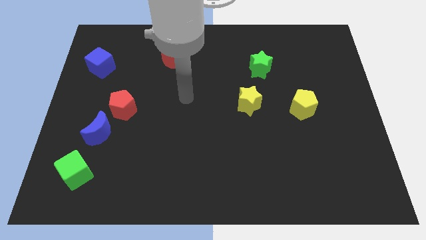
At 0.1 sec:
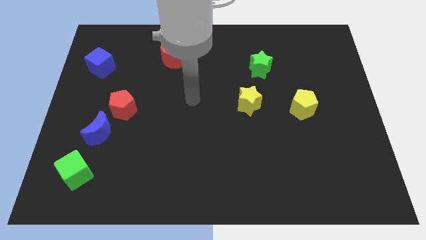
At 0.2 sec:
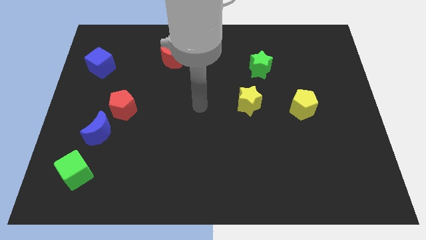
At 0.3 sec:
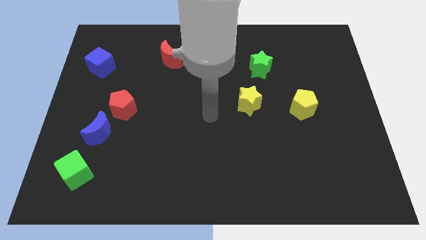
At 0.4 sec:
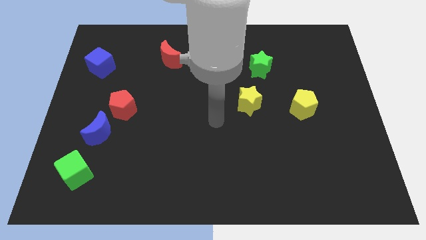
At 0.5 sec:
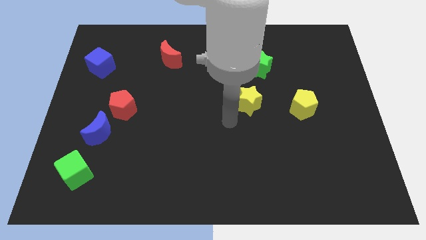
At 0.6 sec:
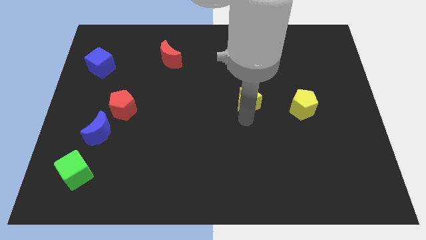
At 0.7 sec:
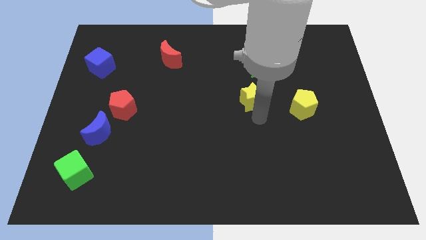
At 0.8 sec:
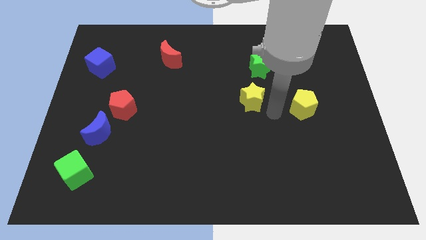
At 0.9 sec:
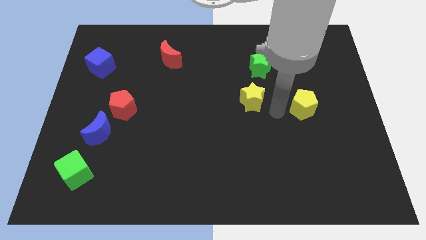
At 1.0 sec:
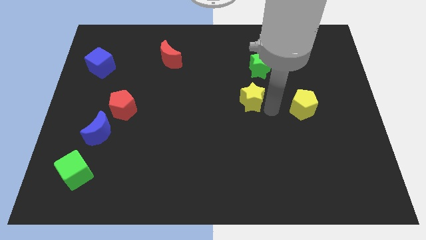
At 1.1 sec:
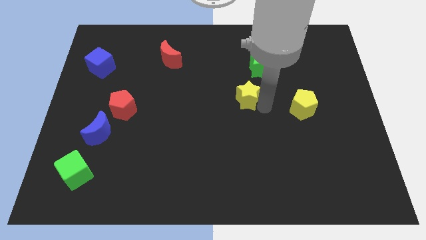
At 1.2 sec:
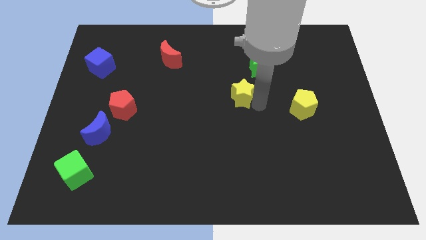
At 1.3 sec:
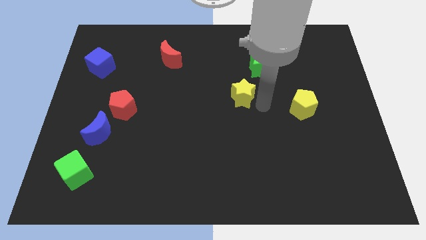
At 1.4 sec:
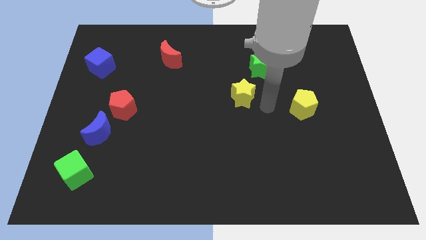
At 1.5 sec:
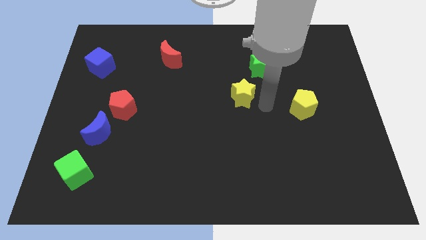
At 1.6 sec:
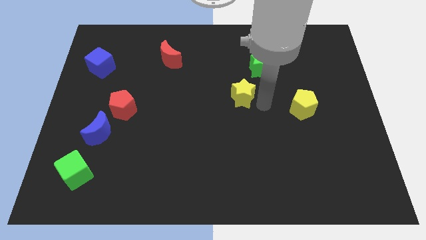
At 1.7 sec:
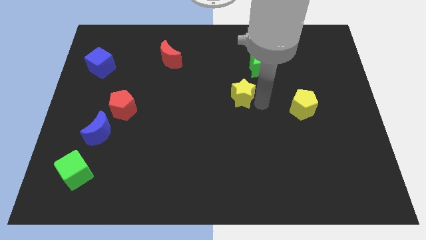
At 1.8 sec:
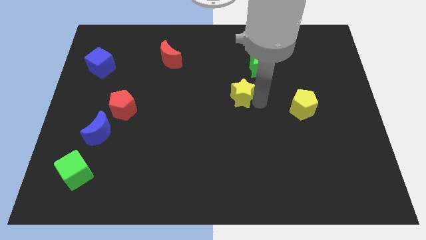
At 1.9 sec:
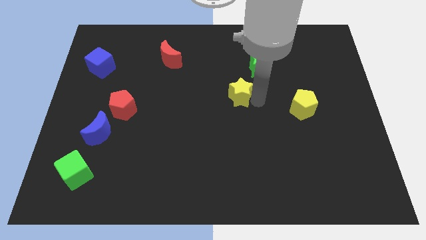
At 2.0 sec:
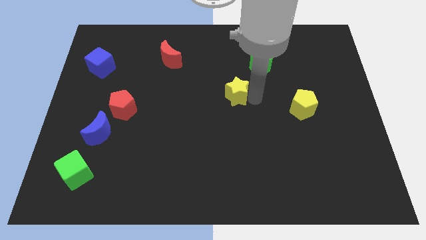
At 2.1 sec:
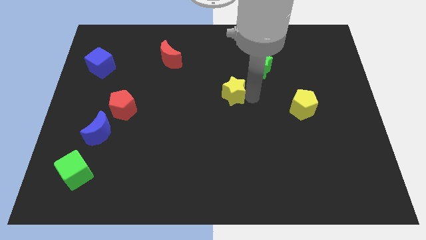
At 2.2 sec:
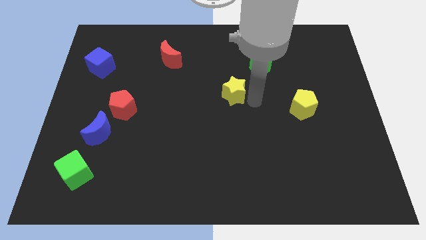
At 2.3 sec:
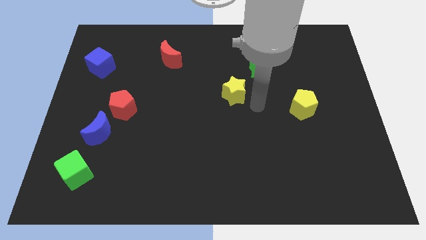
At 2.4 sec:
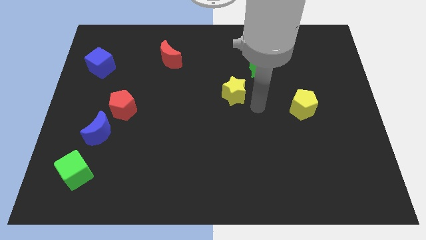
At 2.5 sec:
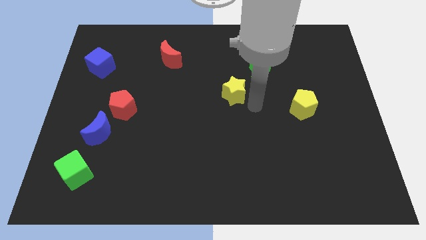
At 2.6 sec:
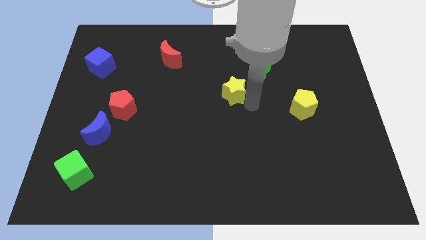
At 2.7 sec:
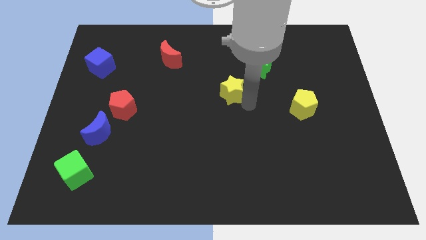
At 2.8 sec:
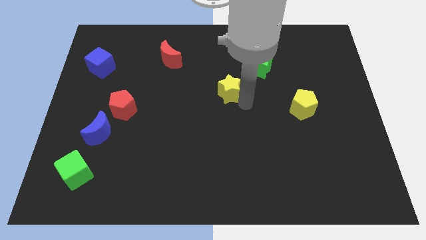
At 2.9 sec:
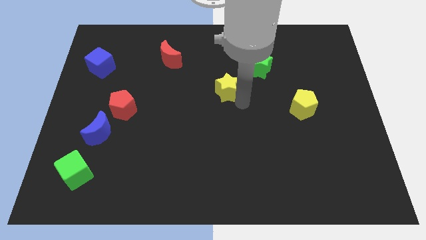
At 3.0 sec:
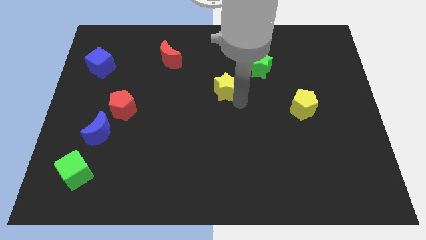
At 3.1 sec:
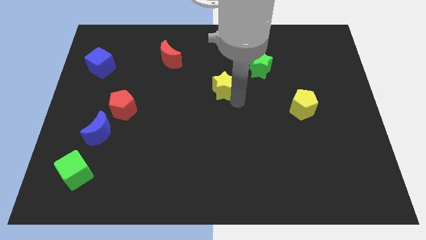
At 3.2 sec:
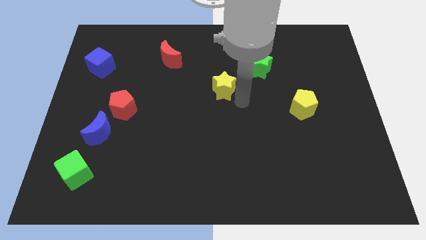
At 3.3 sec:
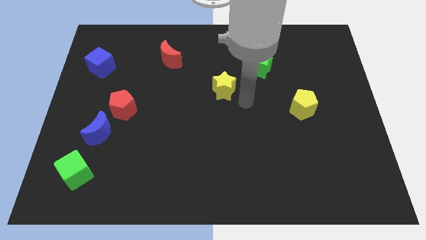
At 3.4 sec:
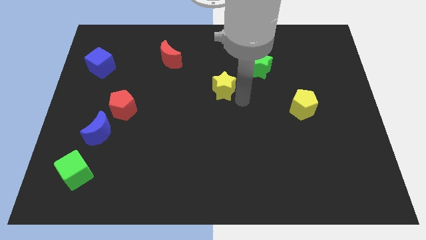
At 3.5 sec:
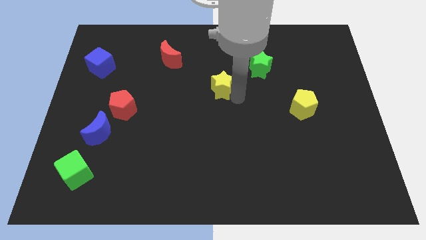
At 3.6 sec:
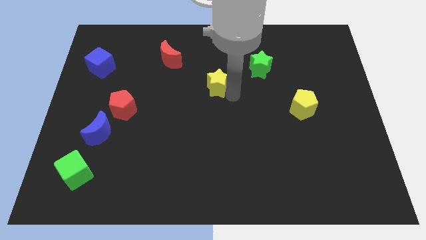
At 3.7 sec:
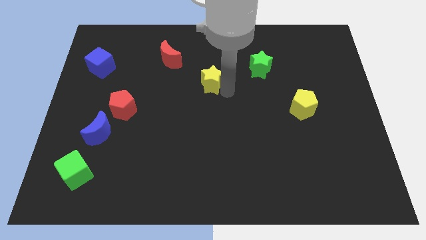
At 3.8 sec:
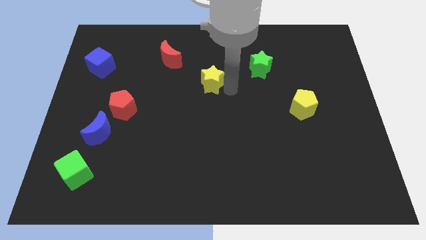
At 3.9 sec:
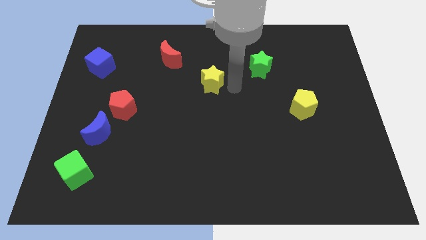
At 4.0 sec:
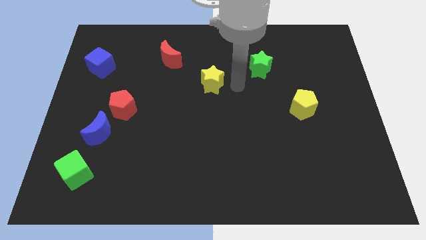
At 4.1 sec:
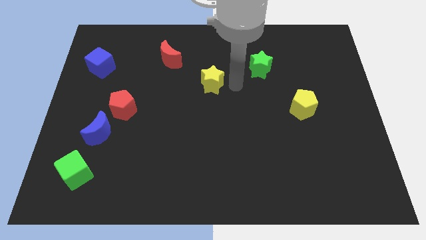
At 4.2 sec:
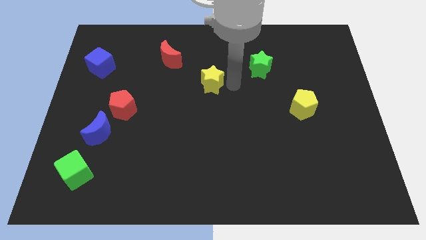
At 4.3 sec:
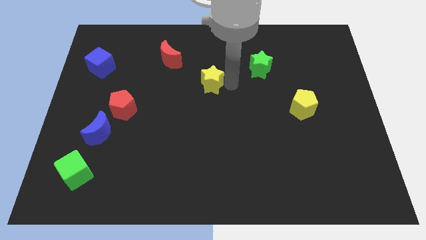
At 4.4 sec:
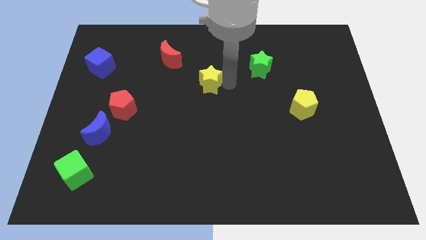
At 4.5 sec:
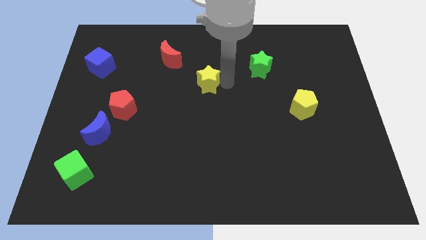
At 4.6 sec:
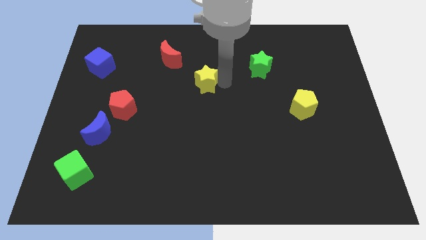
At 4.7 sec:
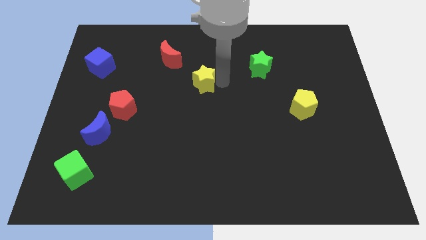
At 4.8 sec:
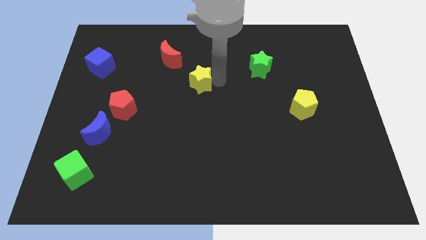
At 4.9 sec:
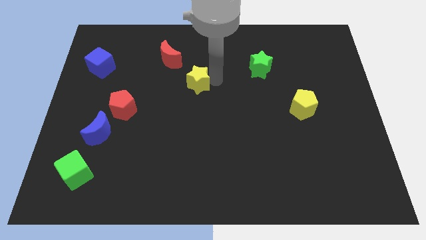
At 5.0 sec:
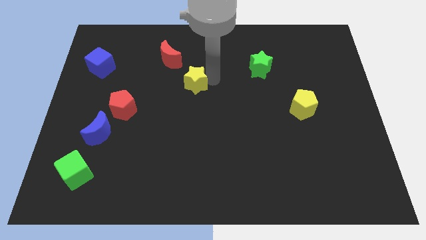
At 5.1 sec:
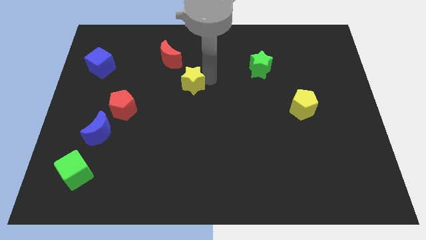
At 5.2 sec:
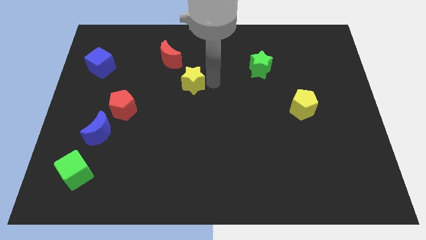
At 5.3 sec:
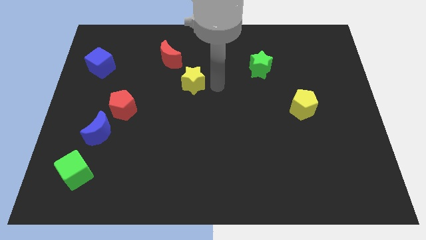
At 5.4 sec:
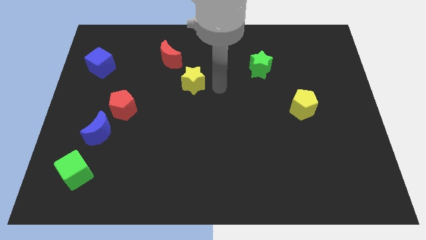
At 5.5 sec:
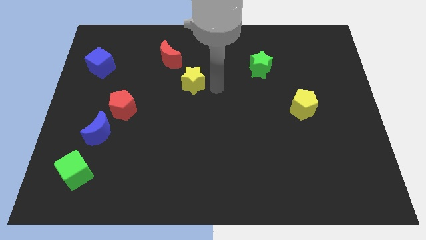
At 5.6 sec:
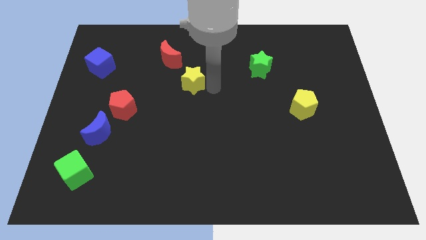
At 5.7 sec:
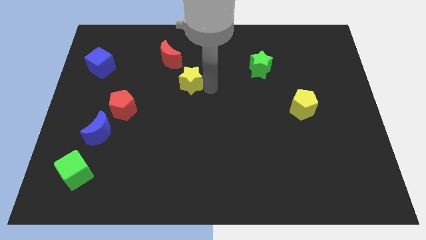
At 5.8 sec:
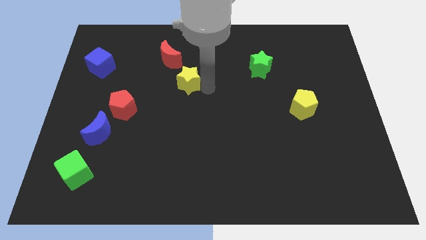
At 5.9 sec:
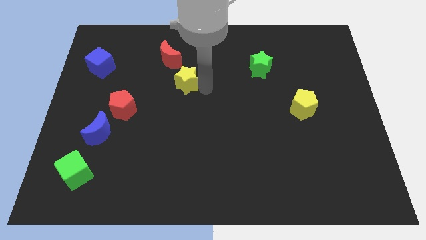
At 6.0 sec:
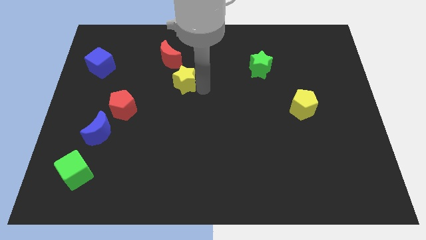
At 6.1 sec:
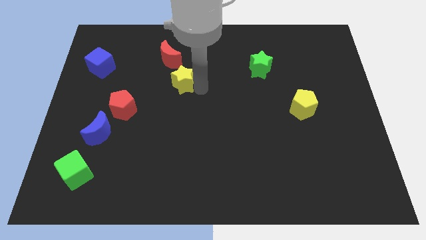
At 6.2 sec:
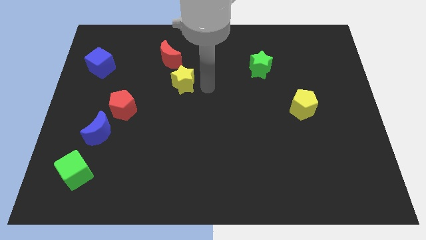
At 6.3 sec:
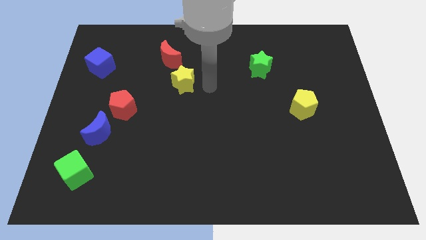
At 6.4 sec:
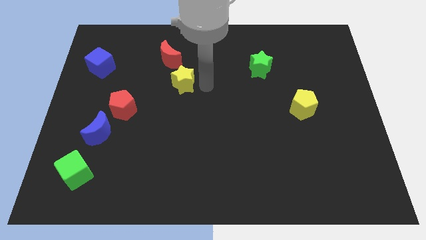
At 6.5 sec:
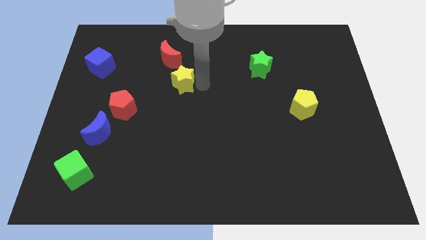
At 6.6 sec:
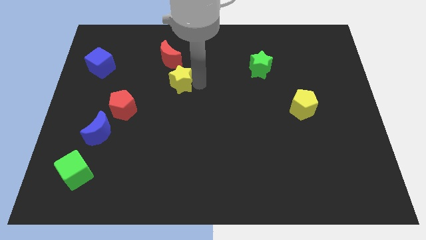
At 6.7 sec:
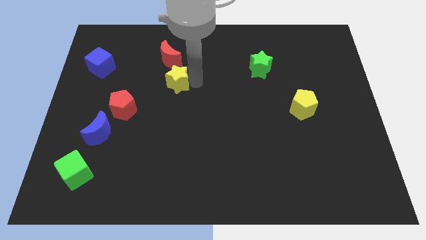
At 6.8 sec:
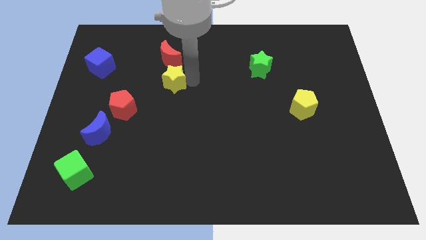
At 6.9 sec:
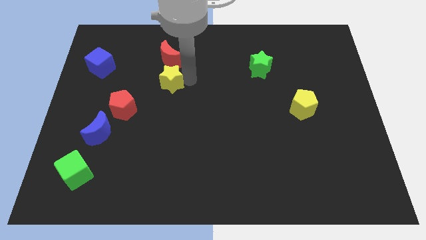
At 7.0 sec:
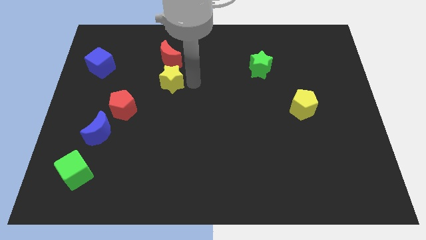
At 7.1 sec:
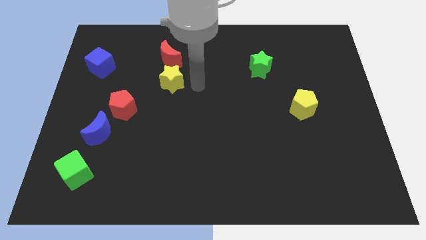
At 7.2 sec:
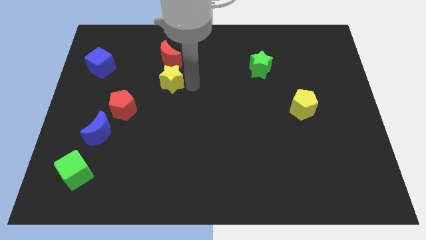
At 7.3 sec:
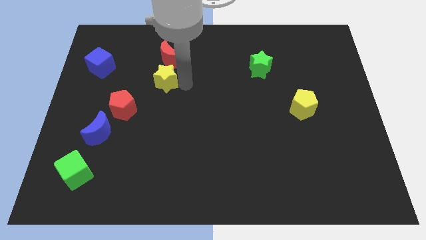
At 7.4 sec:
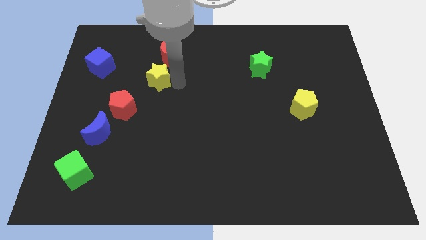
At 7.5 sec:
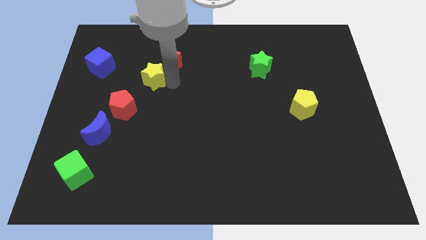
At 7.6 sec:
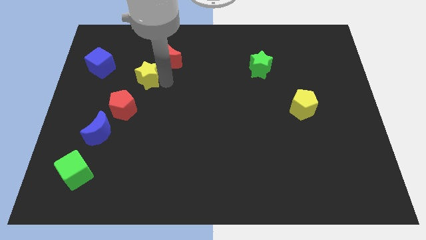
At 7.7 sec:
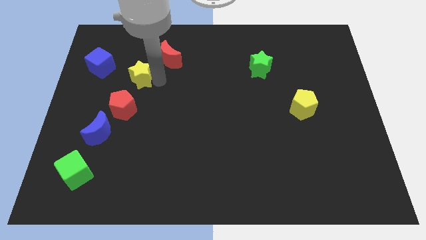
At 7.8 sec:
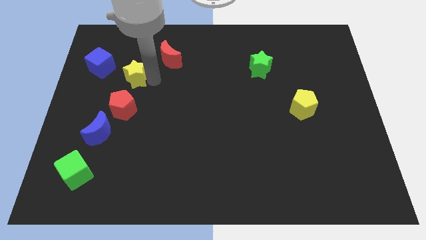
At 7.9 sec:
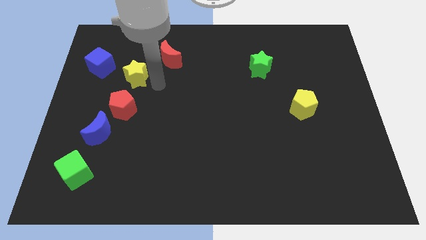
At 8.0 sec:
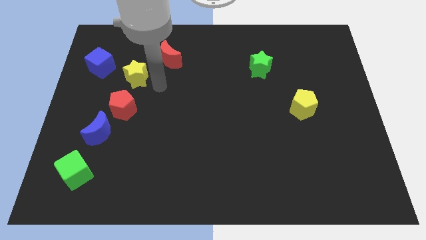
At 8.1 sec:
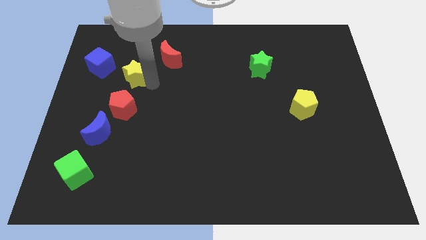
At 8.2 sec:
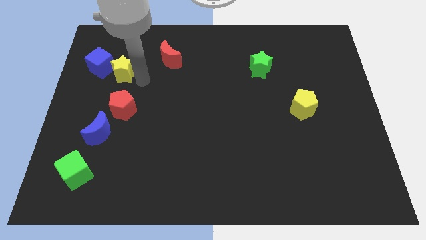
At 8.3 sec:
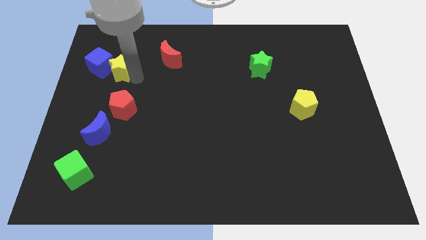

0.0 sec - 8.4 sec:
put the yellow star towards the blue cube
